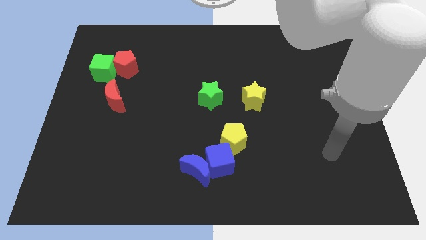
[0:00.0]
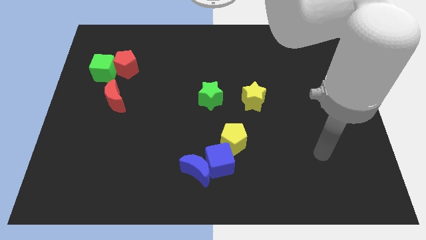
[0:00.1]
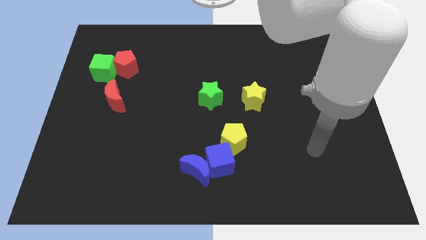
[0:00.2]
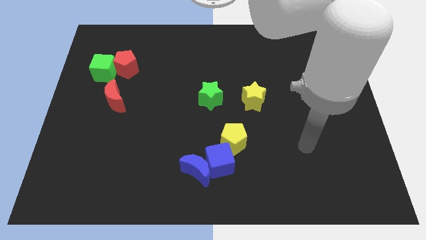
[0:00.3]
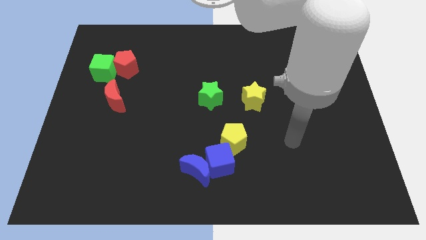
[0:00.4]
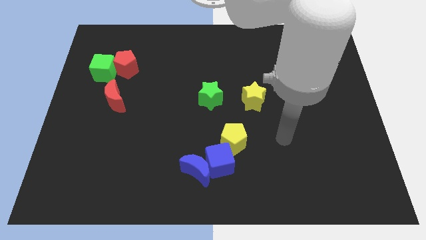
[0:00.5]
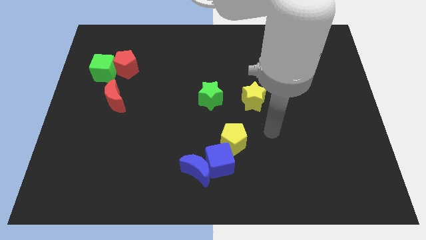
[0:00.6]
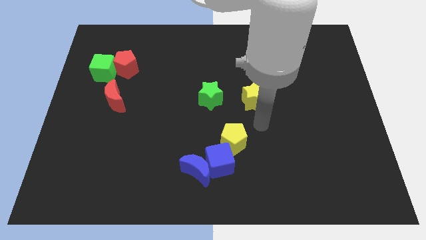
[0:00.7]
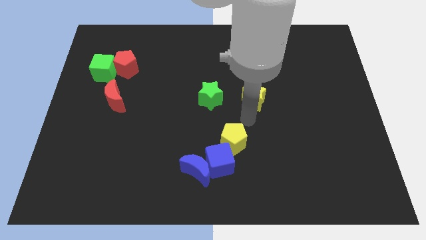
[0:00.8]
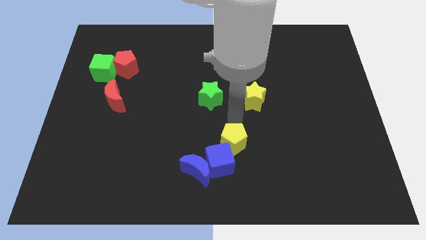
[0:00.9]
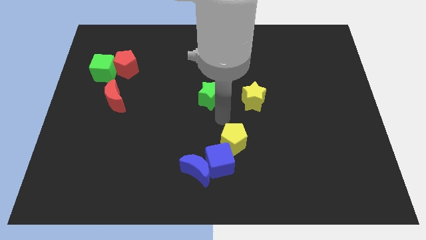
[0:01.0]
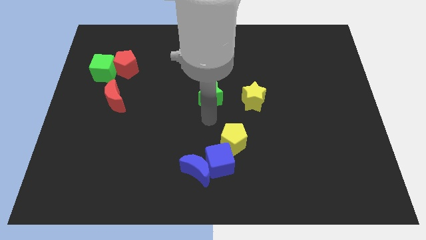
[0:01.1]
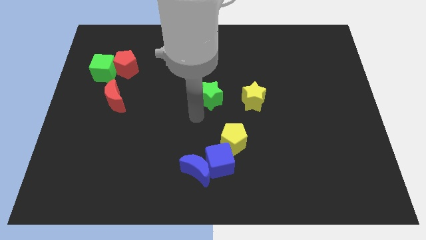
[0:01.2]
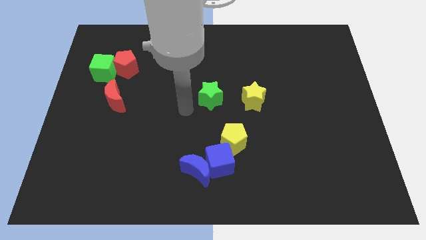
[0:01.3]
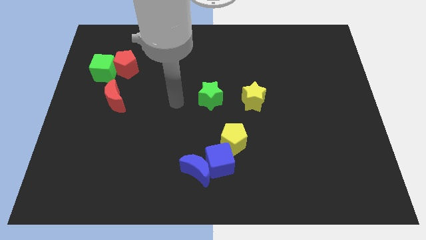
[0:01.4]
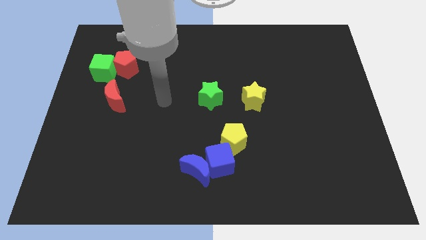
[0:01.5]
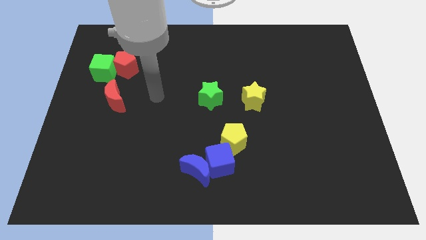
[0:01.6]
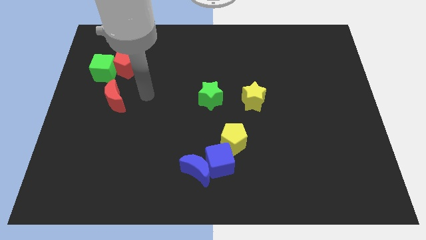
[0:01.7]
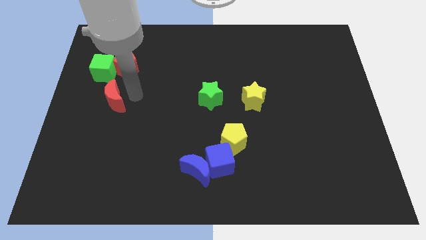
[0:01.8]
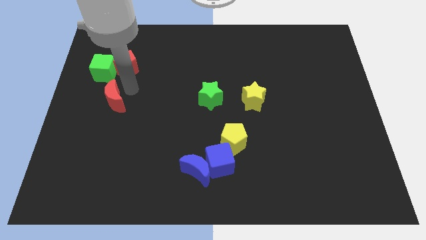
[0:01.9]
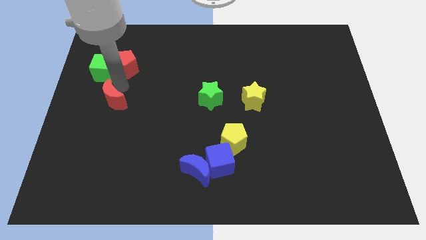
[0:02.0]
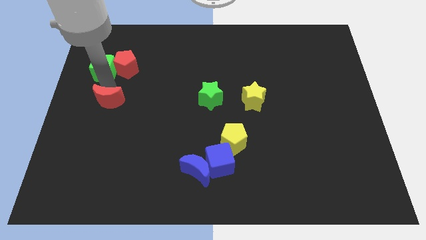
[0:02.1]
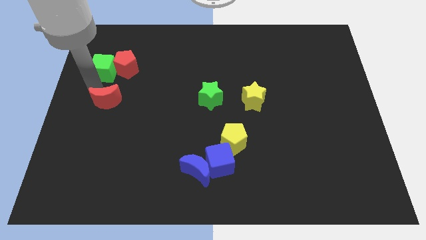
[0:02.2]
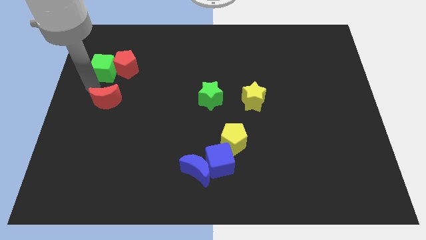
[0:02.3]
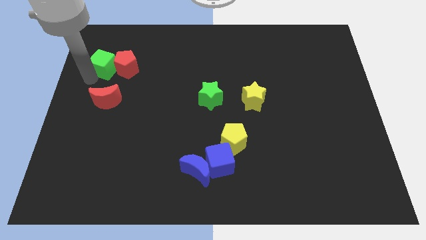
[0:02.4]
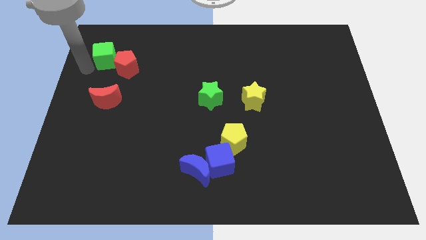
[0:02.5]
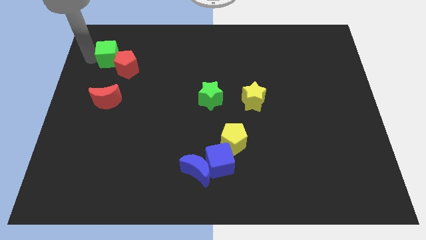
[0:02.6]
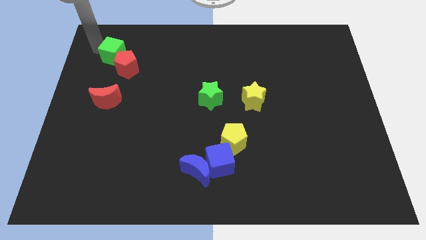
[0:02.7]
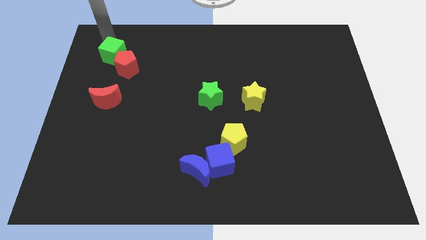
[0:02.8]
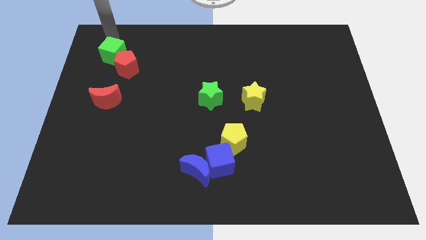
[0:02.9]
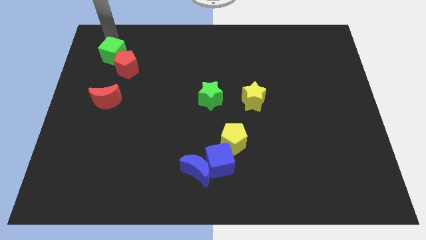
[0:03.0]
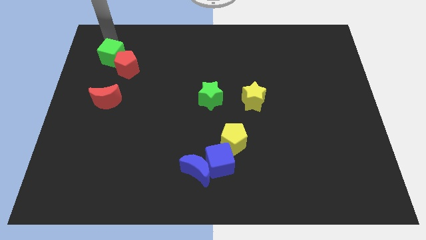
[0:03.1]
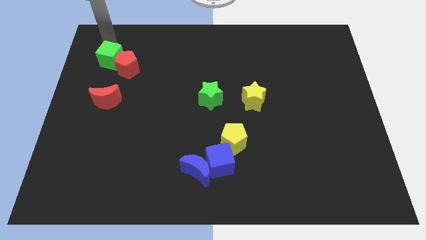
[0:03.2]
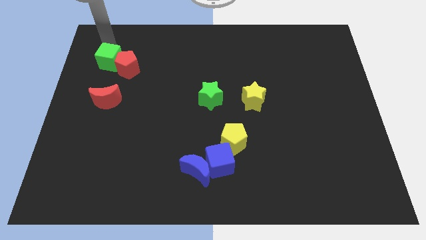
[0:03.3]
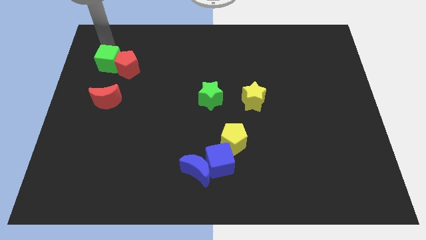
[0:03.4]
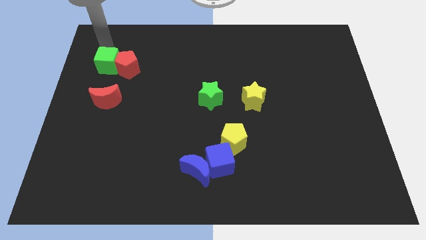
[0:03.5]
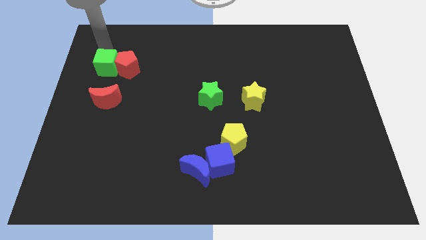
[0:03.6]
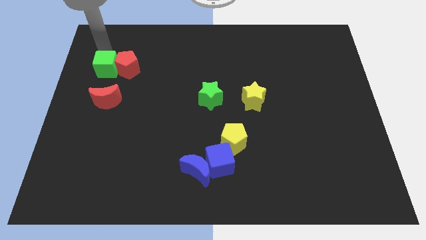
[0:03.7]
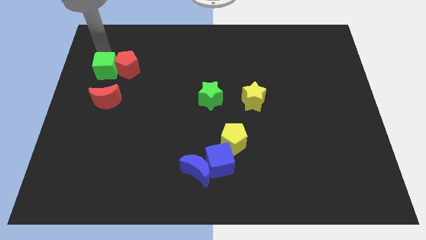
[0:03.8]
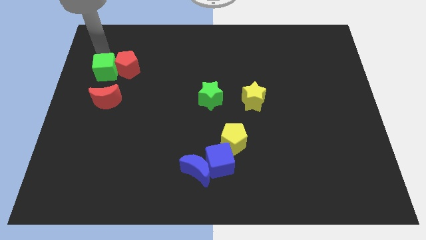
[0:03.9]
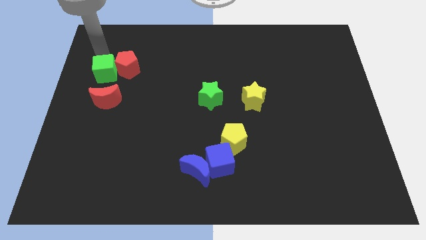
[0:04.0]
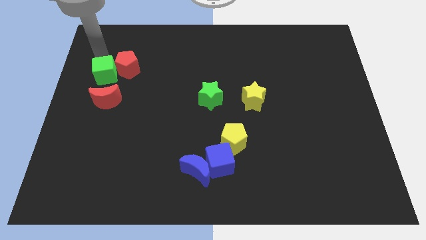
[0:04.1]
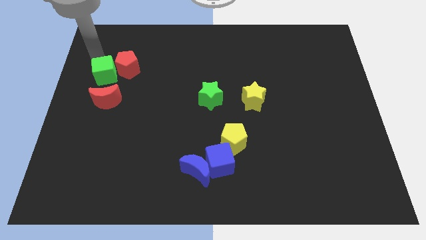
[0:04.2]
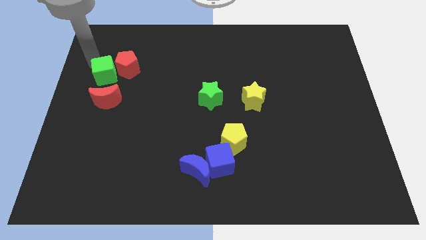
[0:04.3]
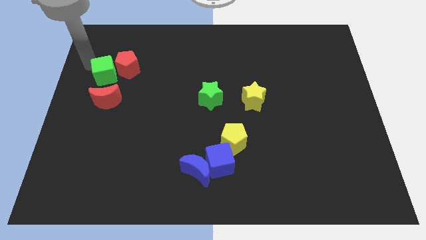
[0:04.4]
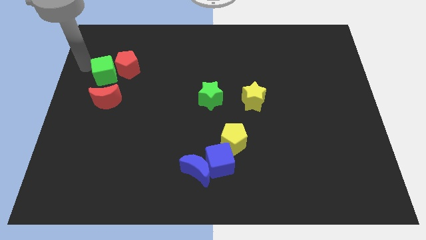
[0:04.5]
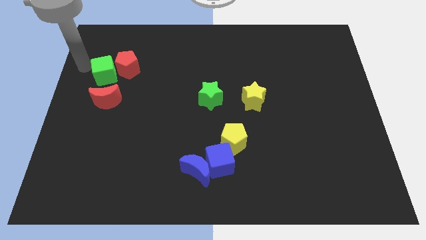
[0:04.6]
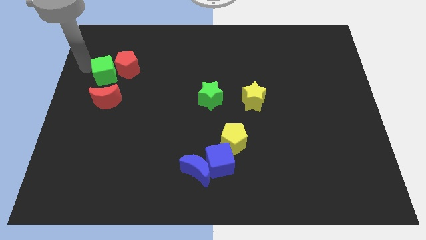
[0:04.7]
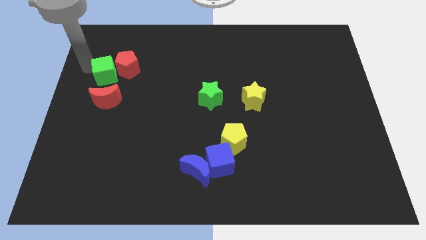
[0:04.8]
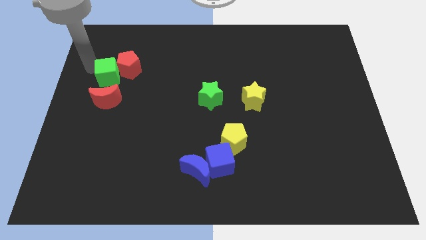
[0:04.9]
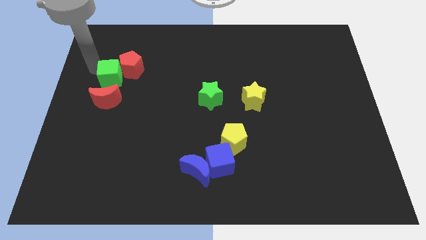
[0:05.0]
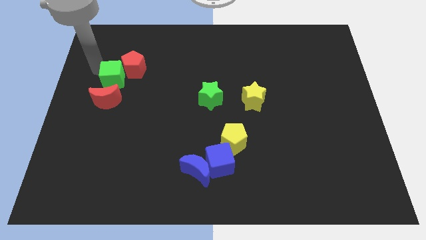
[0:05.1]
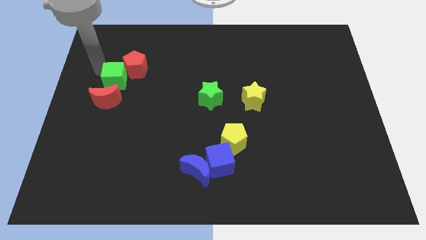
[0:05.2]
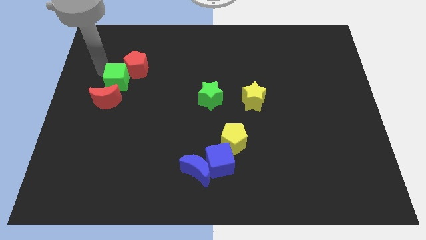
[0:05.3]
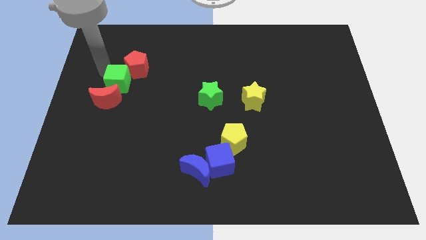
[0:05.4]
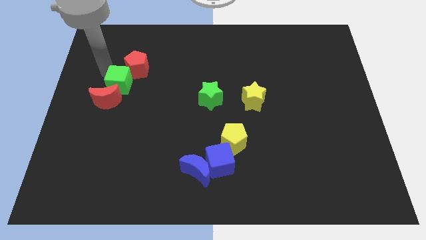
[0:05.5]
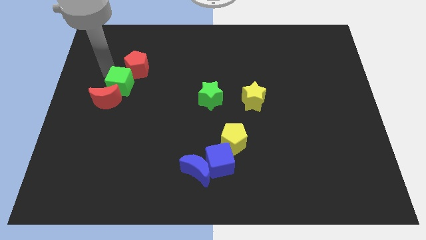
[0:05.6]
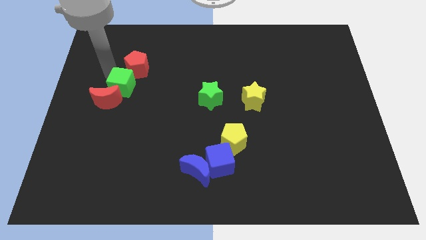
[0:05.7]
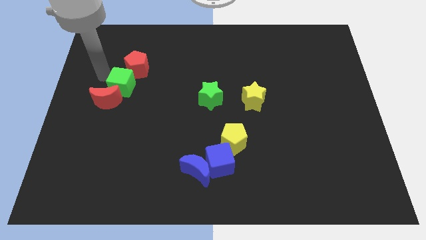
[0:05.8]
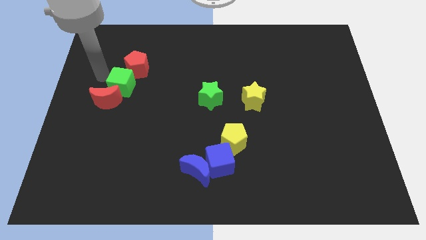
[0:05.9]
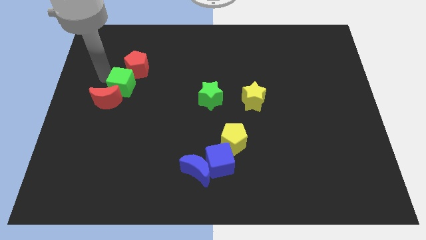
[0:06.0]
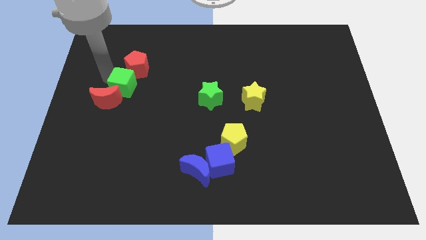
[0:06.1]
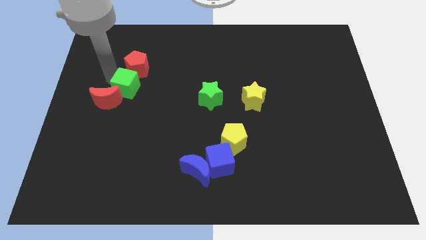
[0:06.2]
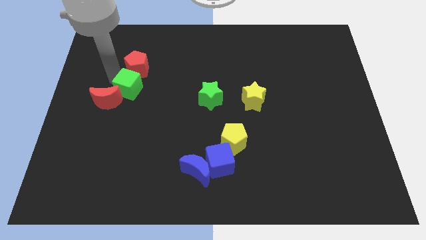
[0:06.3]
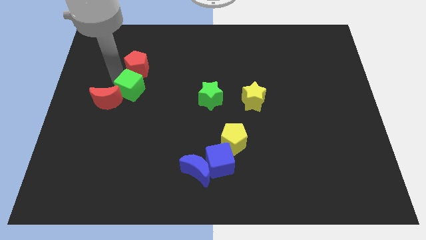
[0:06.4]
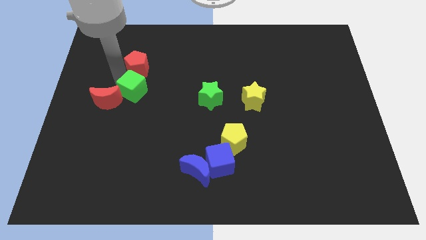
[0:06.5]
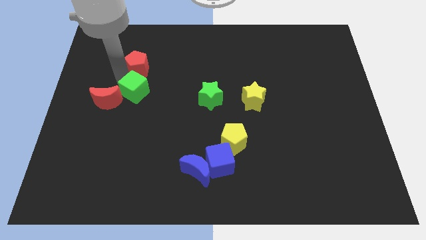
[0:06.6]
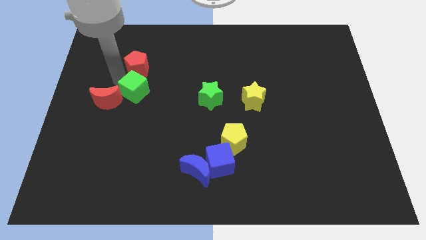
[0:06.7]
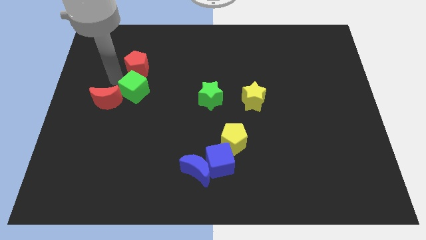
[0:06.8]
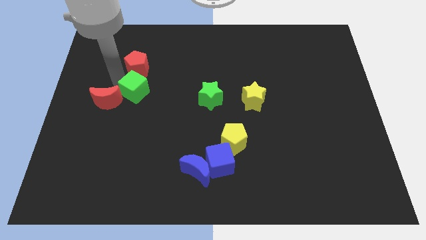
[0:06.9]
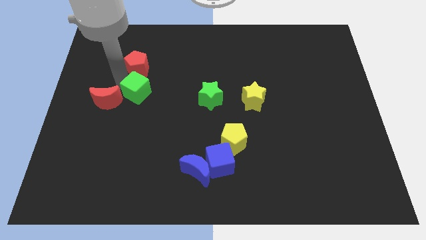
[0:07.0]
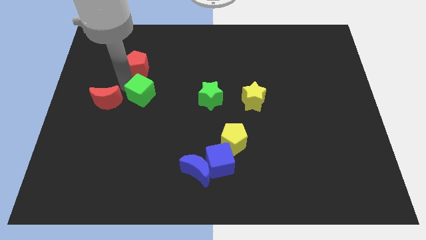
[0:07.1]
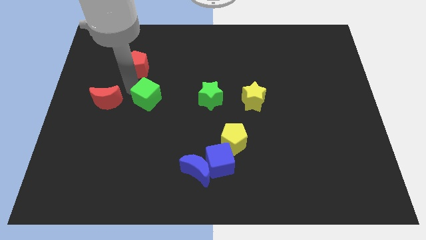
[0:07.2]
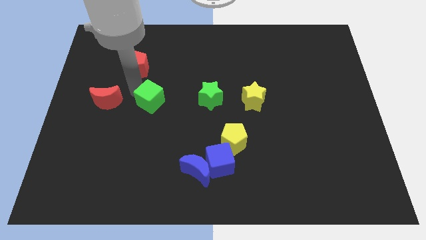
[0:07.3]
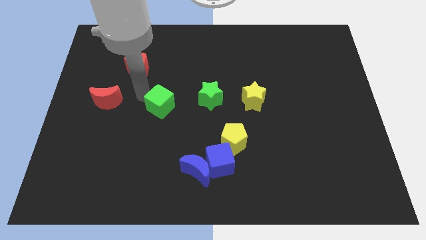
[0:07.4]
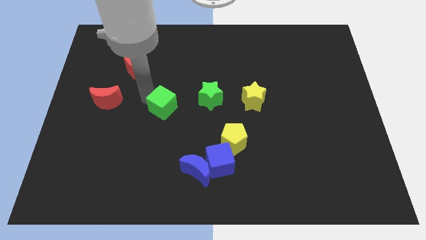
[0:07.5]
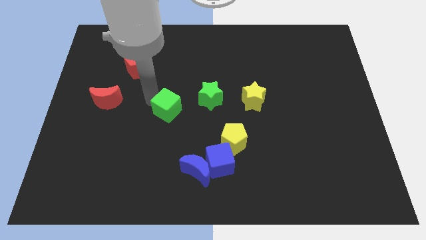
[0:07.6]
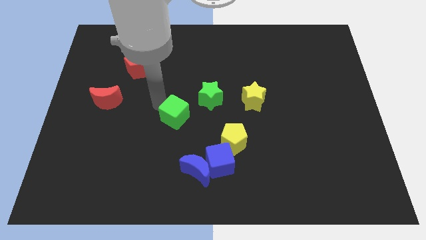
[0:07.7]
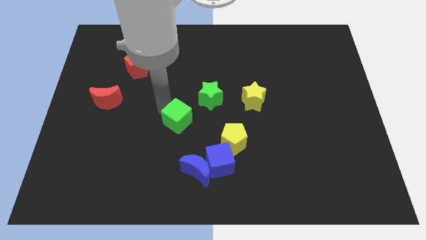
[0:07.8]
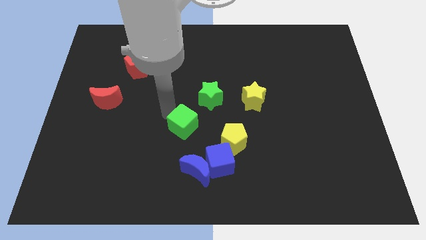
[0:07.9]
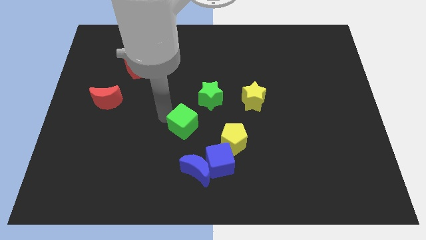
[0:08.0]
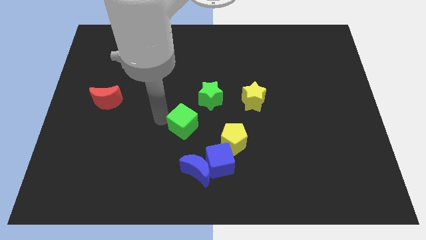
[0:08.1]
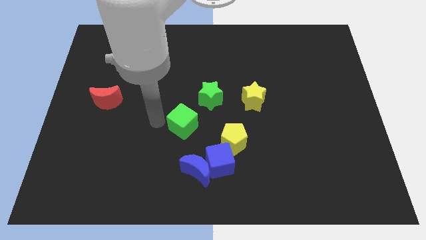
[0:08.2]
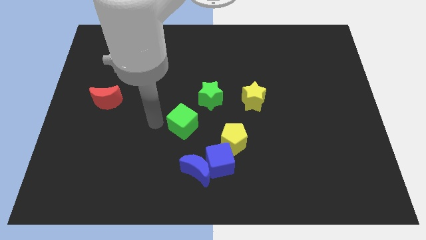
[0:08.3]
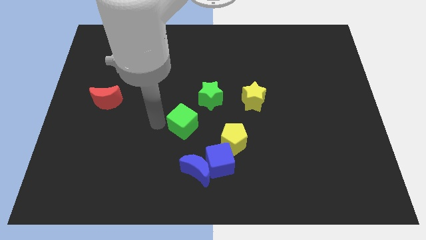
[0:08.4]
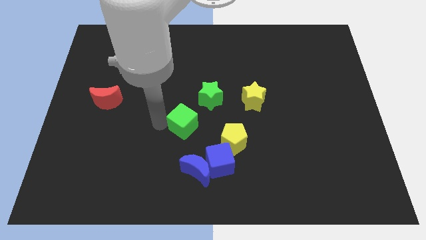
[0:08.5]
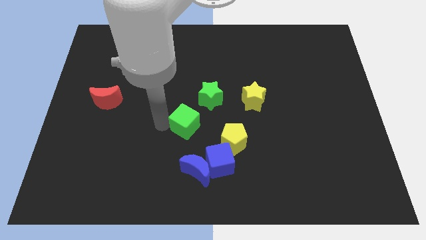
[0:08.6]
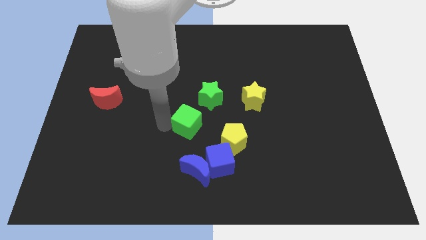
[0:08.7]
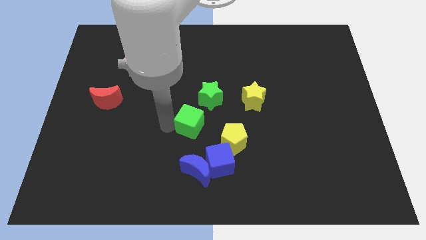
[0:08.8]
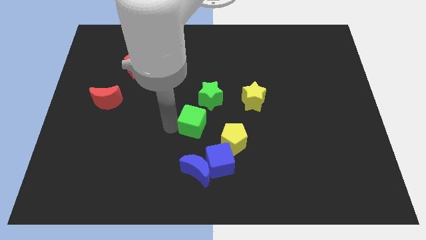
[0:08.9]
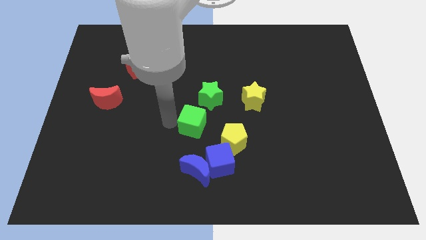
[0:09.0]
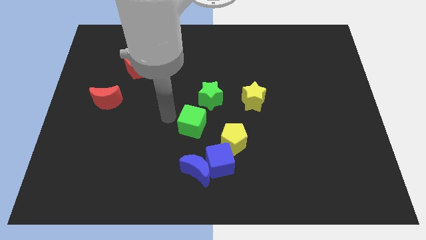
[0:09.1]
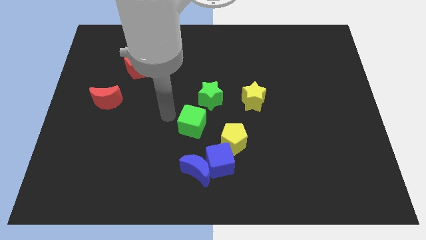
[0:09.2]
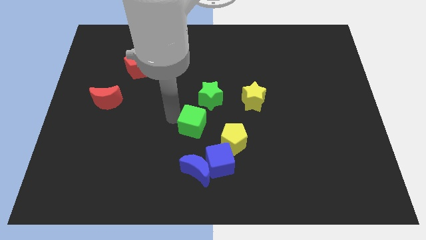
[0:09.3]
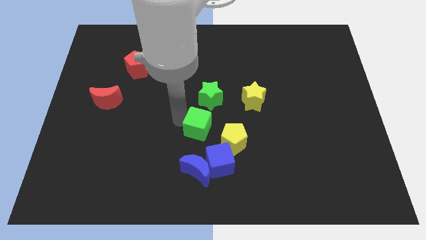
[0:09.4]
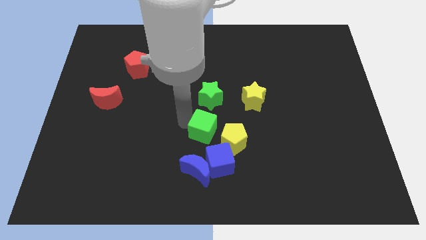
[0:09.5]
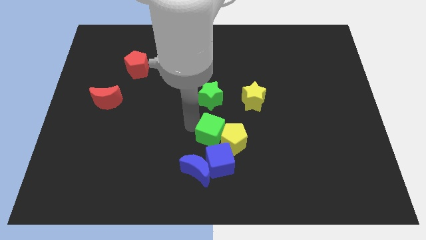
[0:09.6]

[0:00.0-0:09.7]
push the green cube close to the yellow pentagon
